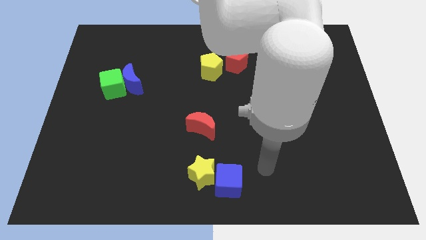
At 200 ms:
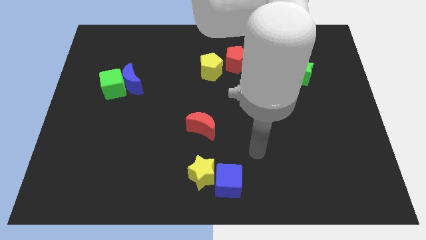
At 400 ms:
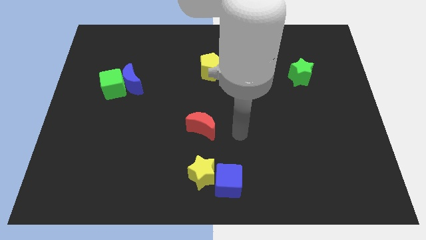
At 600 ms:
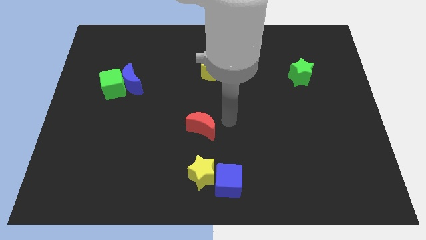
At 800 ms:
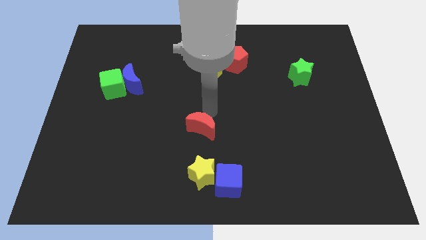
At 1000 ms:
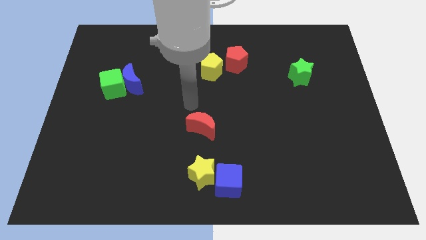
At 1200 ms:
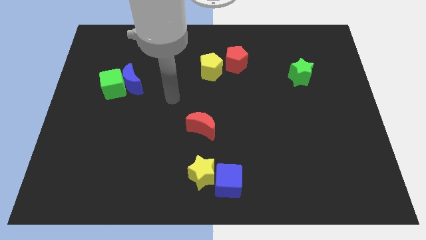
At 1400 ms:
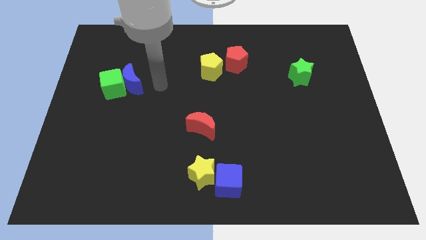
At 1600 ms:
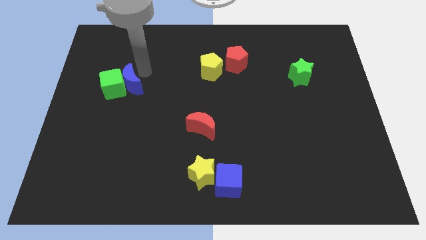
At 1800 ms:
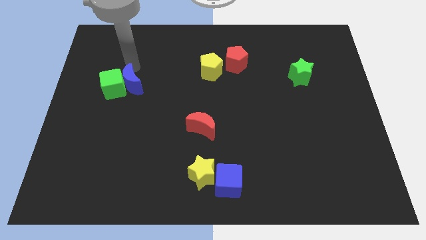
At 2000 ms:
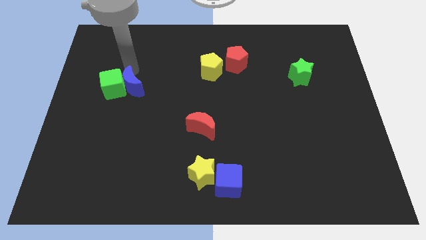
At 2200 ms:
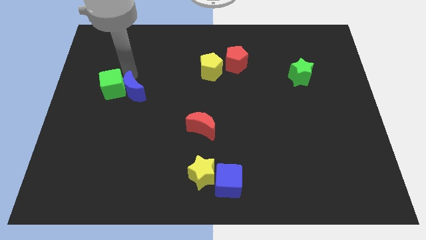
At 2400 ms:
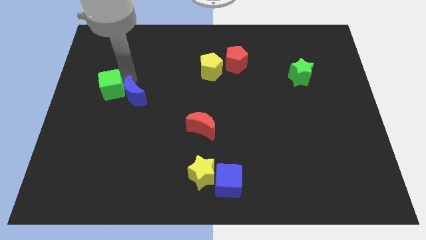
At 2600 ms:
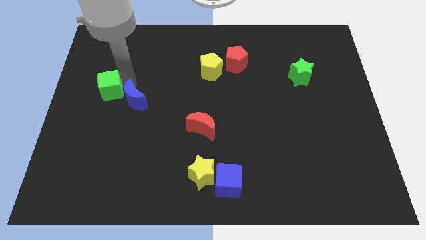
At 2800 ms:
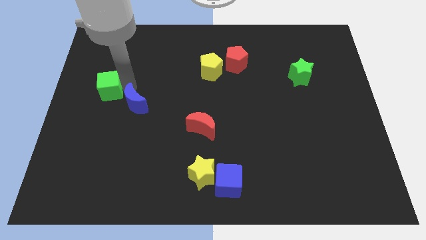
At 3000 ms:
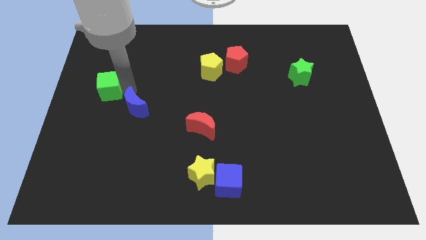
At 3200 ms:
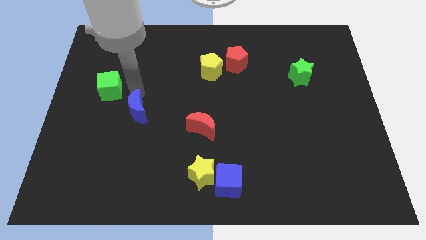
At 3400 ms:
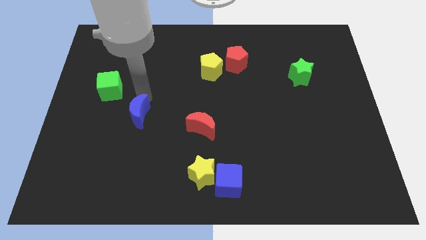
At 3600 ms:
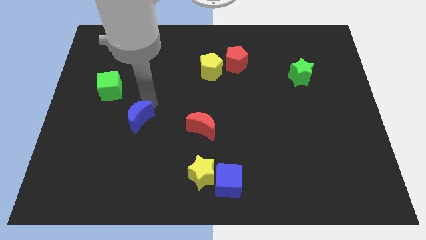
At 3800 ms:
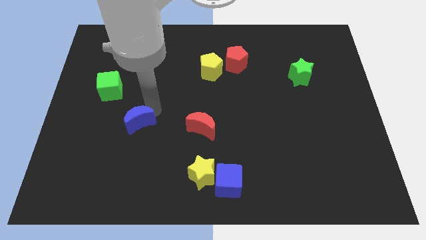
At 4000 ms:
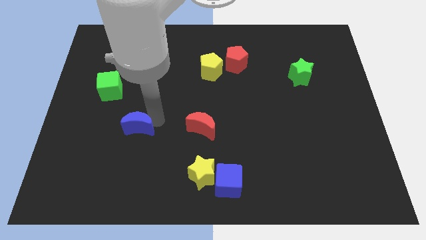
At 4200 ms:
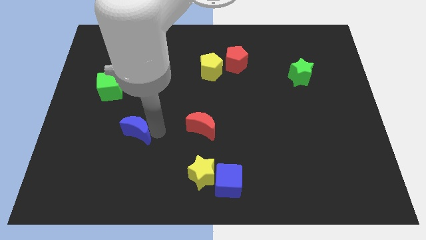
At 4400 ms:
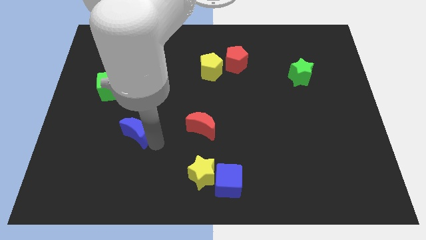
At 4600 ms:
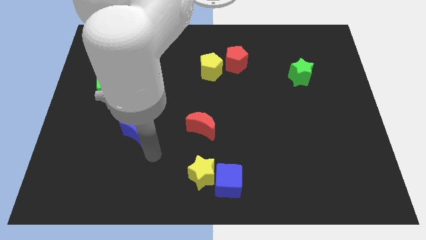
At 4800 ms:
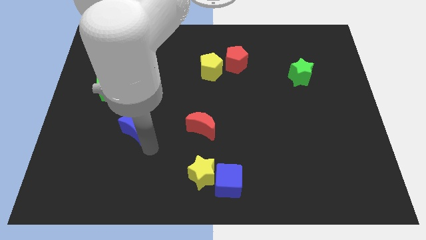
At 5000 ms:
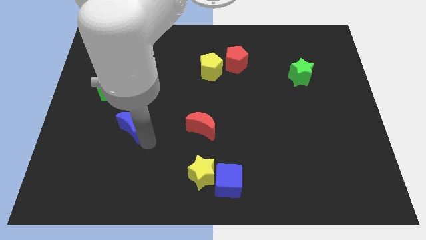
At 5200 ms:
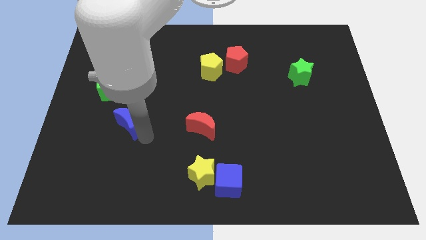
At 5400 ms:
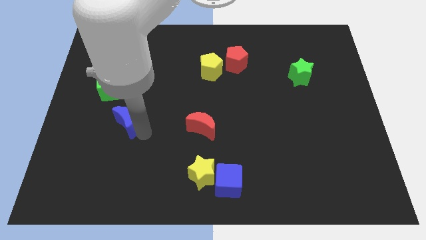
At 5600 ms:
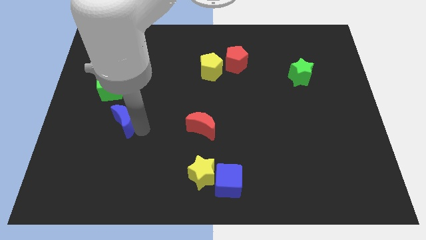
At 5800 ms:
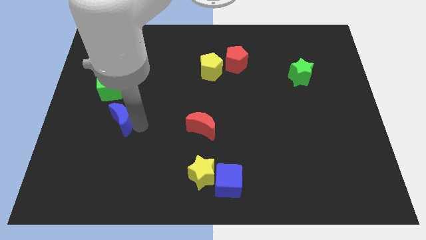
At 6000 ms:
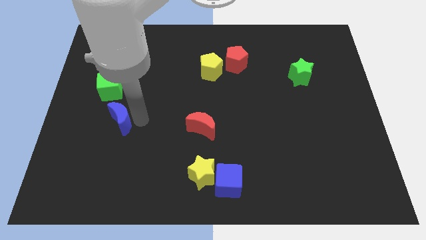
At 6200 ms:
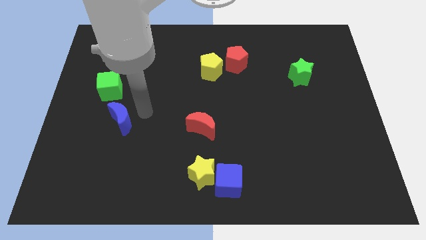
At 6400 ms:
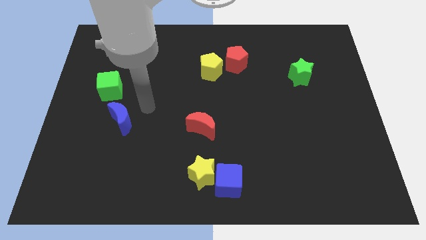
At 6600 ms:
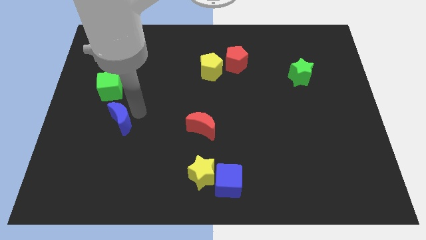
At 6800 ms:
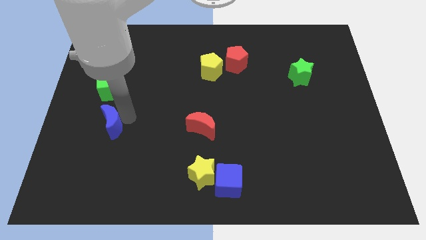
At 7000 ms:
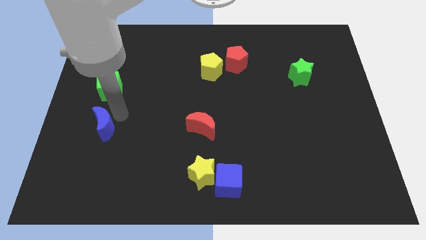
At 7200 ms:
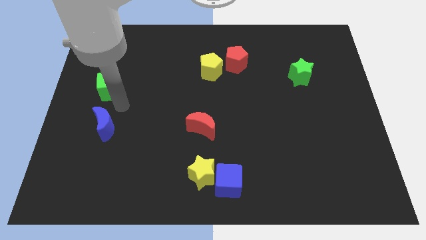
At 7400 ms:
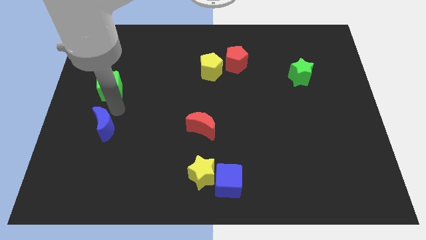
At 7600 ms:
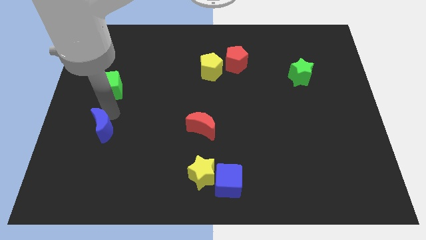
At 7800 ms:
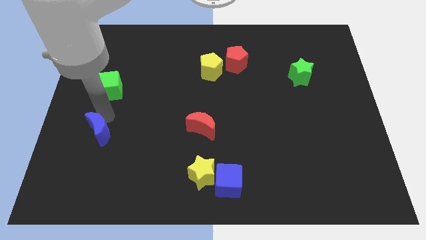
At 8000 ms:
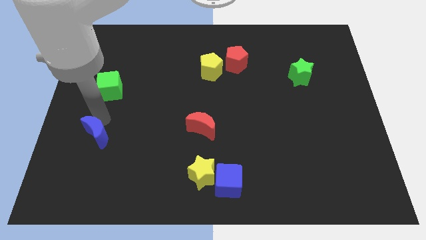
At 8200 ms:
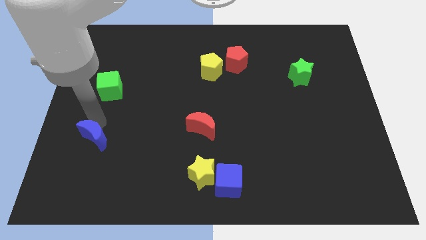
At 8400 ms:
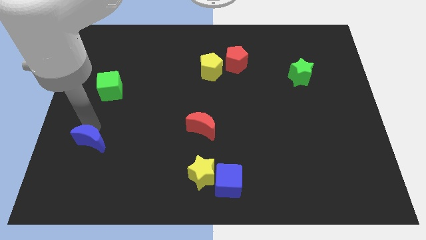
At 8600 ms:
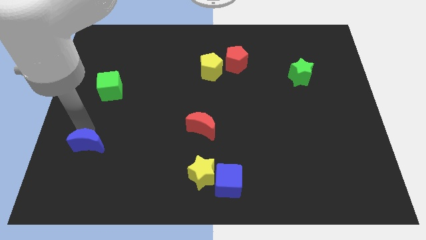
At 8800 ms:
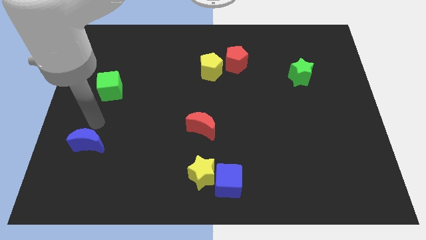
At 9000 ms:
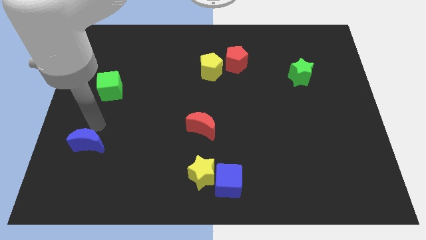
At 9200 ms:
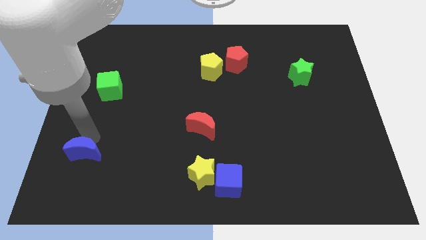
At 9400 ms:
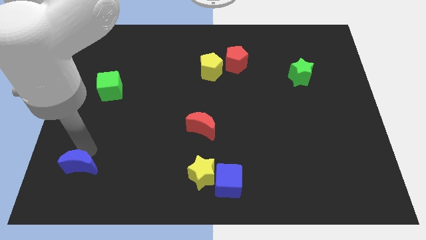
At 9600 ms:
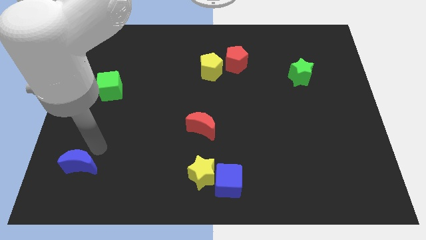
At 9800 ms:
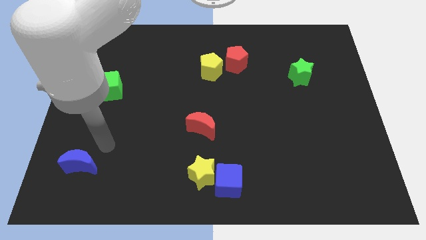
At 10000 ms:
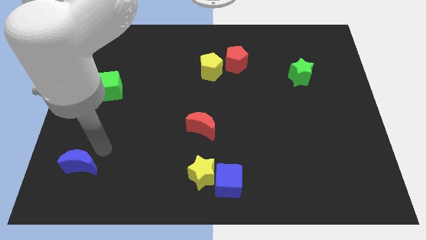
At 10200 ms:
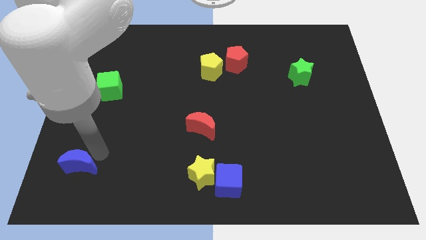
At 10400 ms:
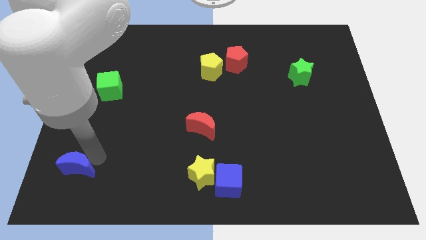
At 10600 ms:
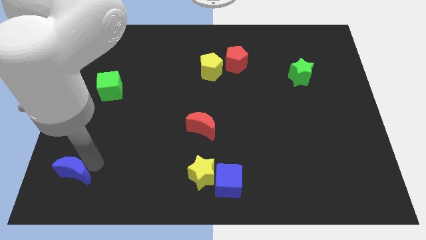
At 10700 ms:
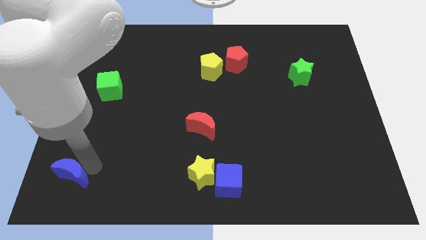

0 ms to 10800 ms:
put the blue moon to the lower left corner

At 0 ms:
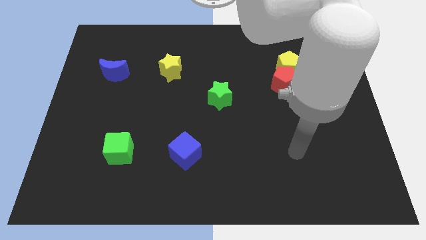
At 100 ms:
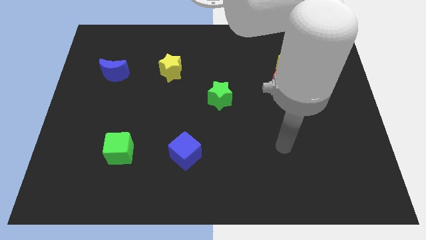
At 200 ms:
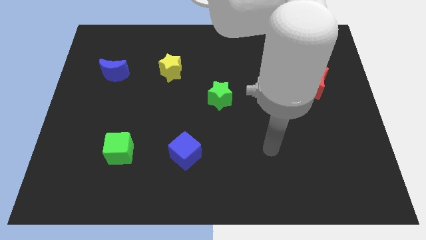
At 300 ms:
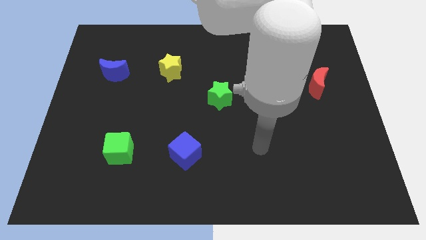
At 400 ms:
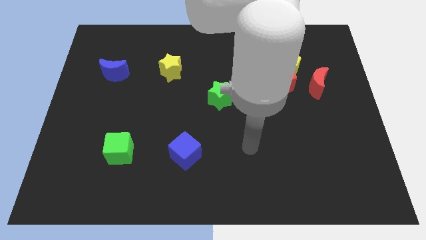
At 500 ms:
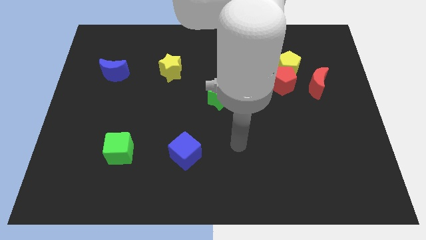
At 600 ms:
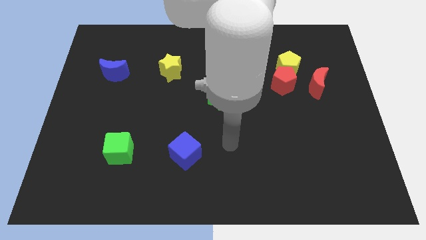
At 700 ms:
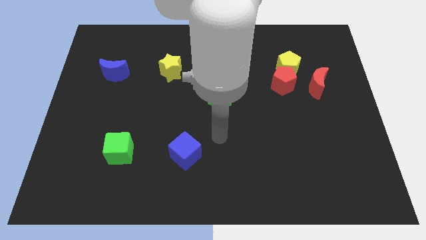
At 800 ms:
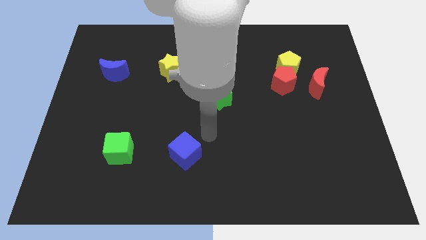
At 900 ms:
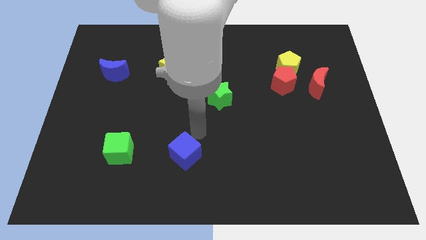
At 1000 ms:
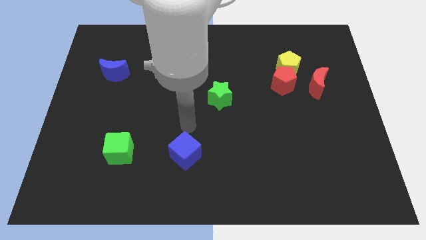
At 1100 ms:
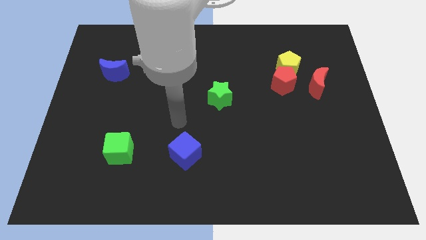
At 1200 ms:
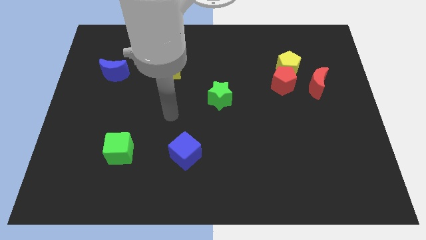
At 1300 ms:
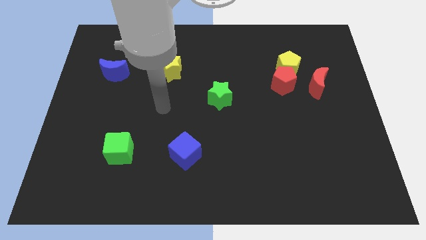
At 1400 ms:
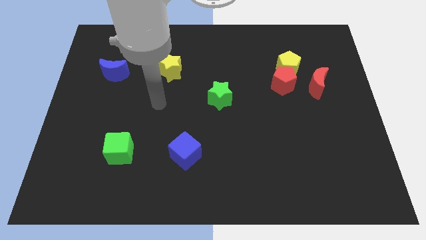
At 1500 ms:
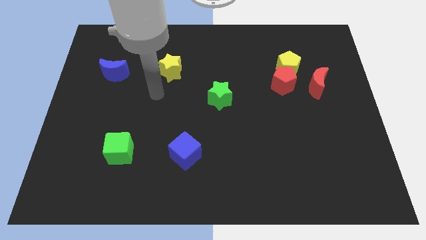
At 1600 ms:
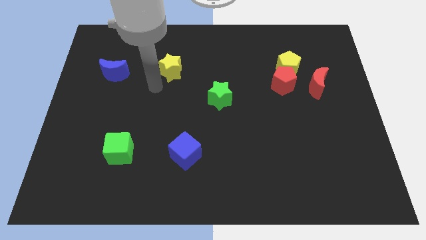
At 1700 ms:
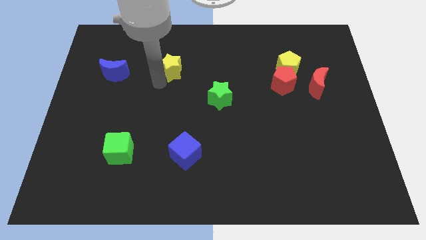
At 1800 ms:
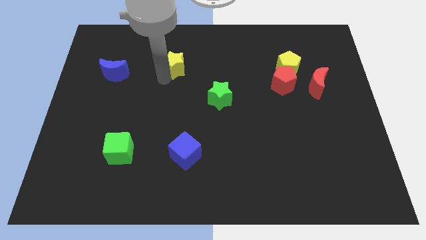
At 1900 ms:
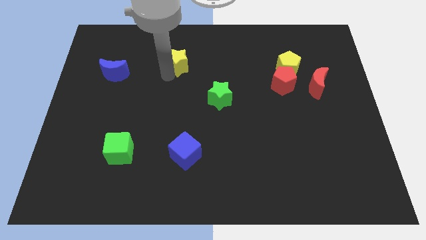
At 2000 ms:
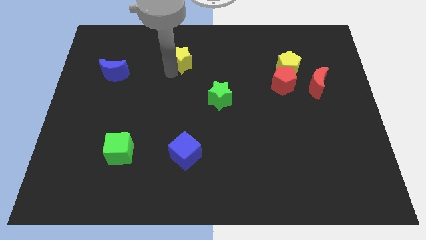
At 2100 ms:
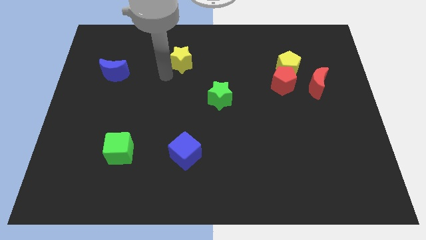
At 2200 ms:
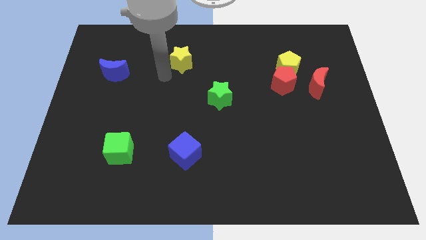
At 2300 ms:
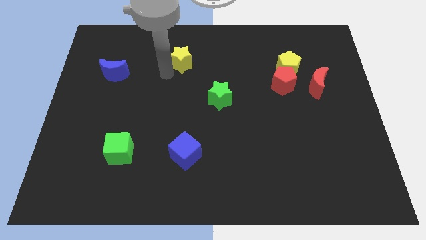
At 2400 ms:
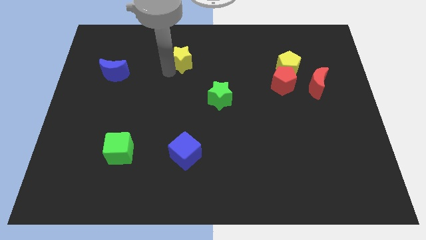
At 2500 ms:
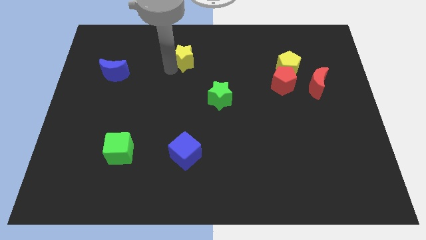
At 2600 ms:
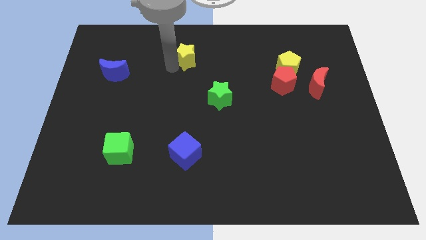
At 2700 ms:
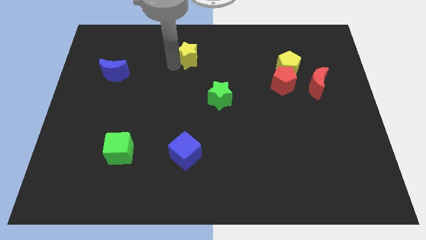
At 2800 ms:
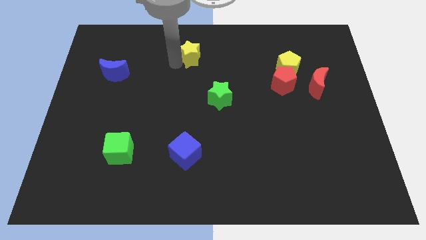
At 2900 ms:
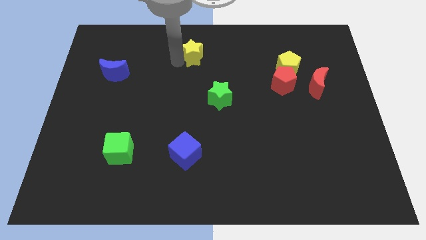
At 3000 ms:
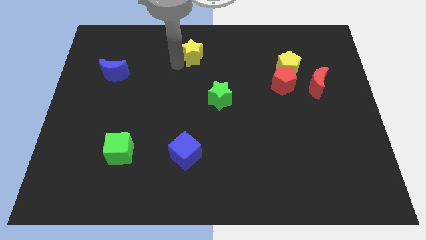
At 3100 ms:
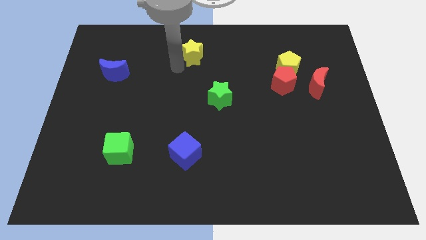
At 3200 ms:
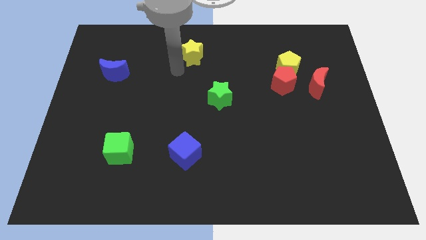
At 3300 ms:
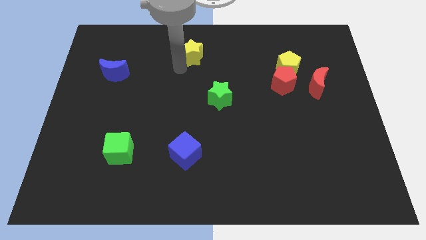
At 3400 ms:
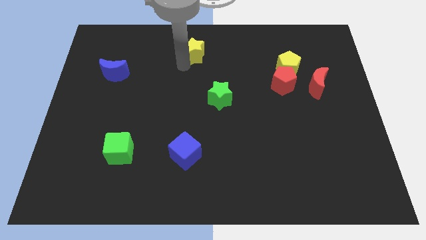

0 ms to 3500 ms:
move the yellow star to the towards your base
